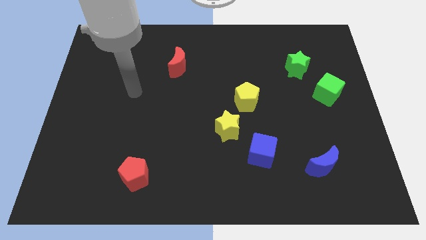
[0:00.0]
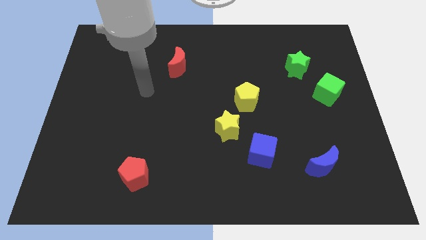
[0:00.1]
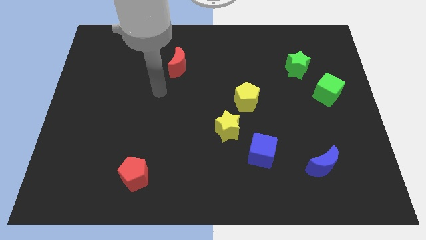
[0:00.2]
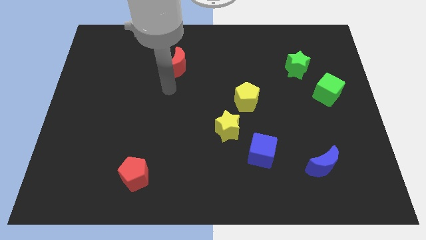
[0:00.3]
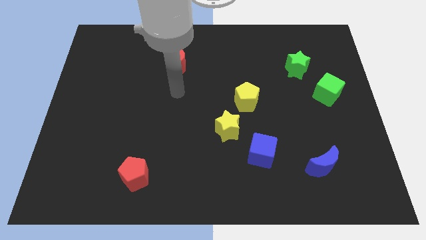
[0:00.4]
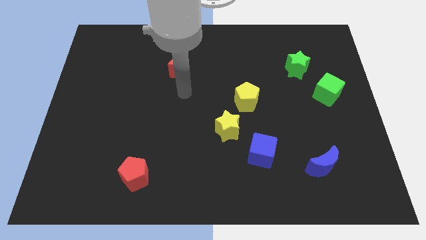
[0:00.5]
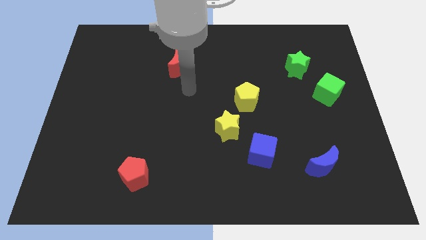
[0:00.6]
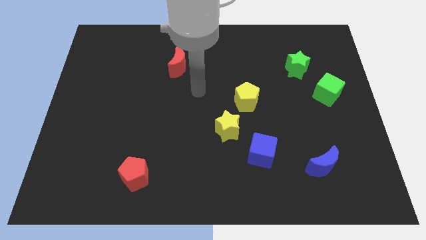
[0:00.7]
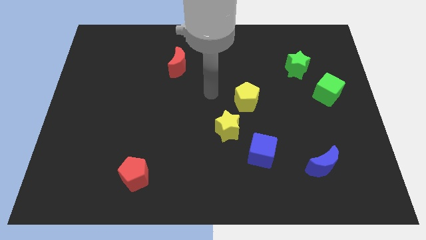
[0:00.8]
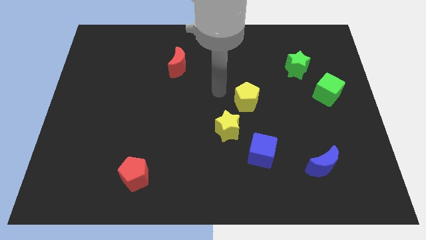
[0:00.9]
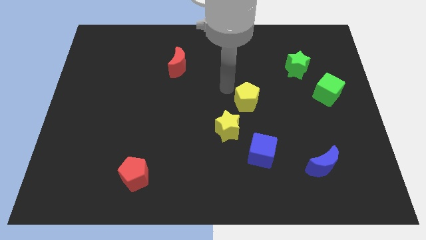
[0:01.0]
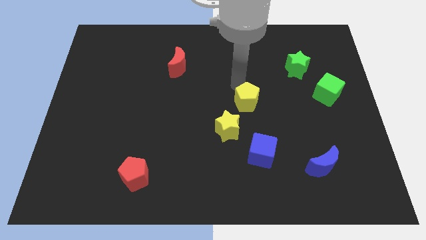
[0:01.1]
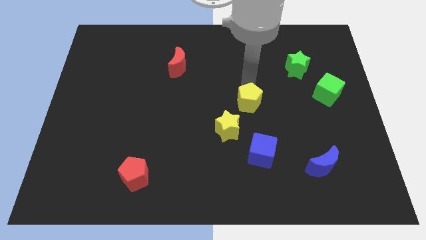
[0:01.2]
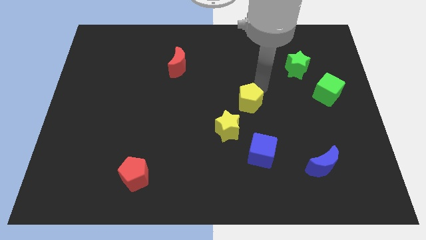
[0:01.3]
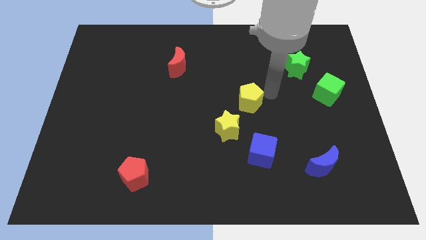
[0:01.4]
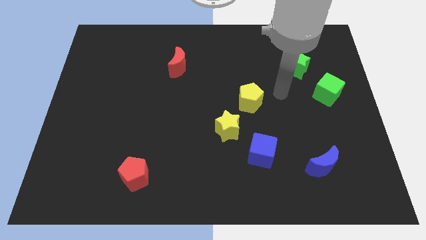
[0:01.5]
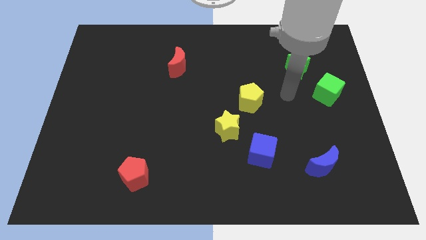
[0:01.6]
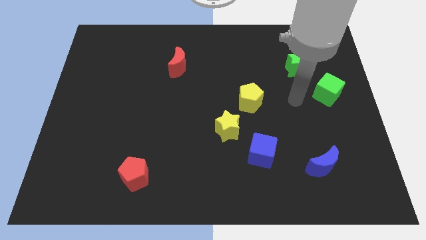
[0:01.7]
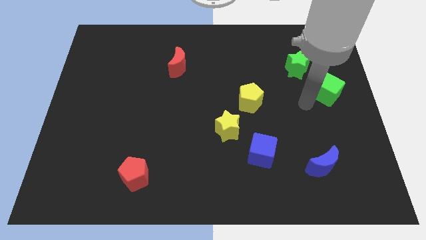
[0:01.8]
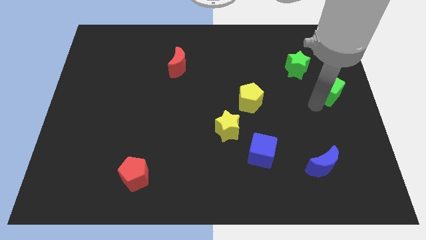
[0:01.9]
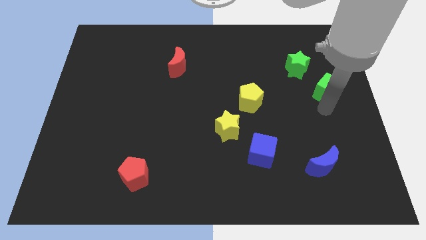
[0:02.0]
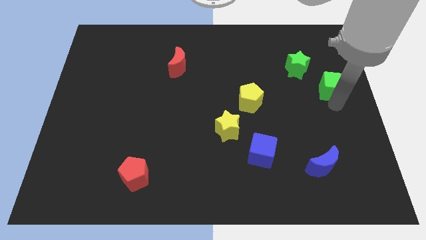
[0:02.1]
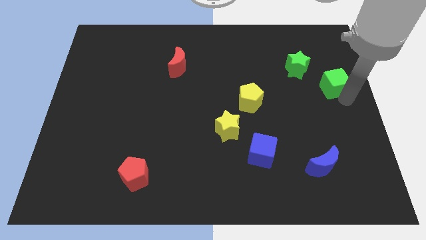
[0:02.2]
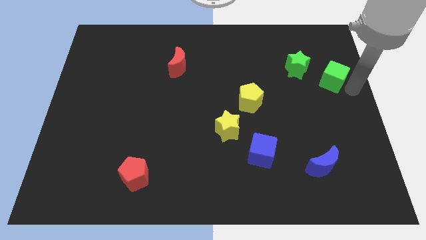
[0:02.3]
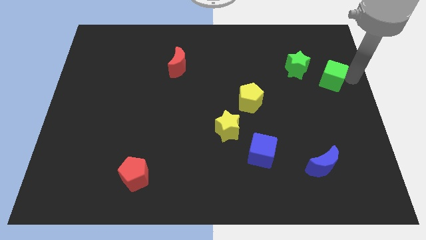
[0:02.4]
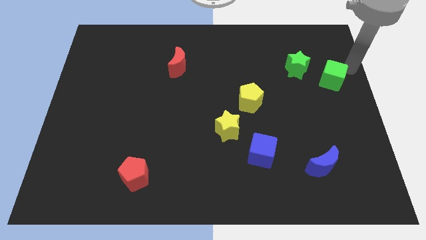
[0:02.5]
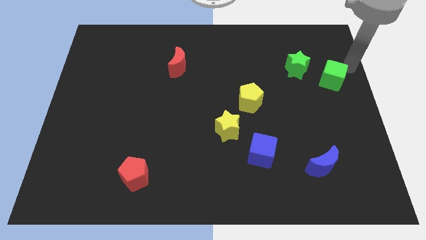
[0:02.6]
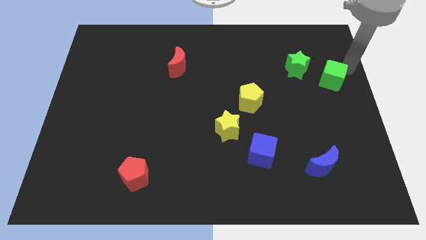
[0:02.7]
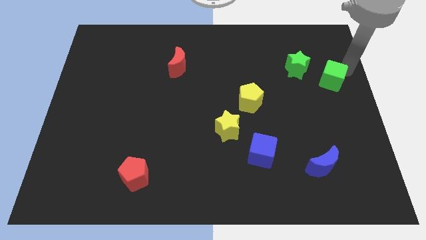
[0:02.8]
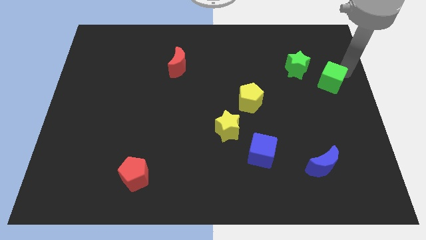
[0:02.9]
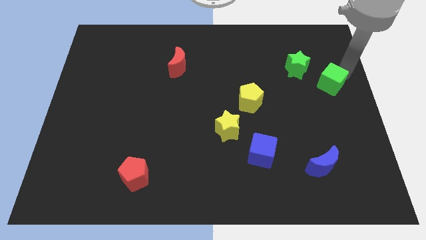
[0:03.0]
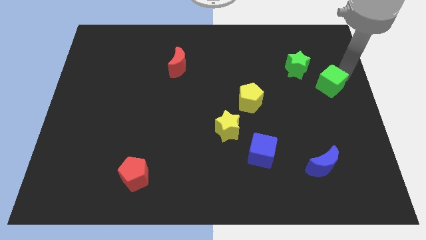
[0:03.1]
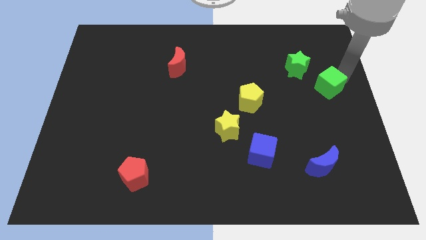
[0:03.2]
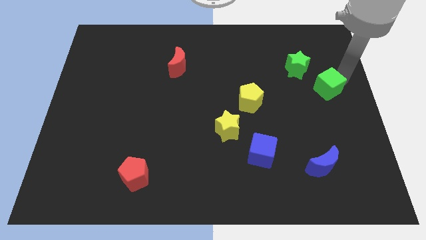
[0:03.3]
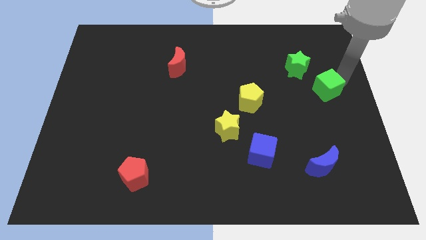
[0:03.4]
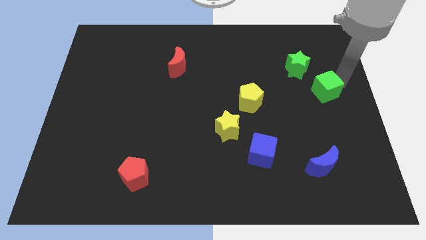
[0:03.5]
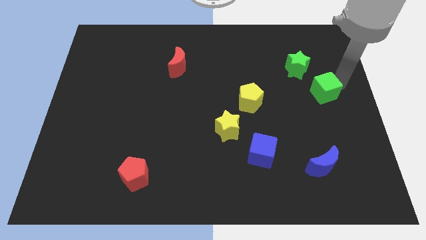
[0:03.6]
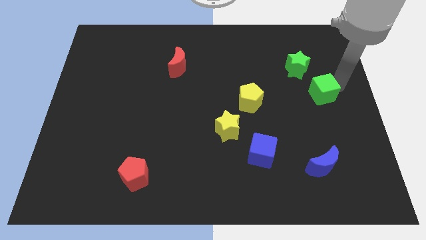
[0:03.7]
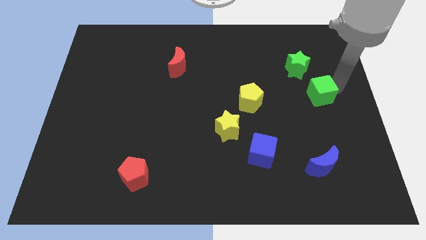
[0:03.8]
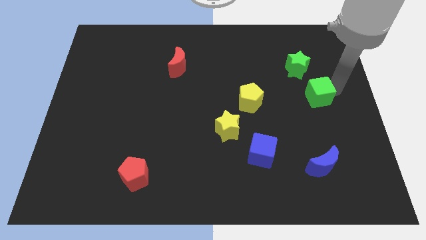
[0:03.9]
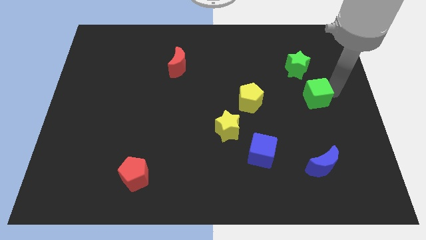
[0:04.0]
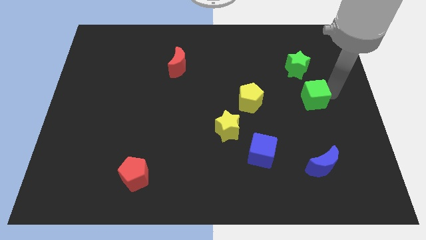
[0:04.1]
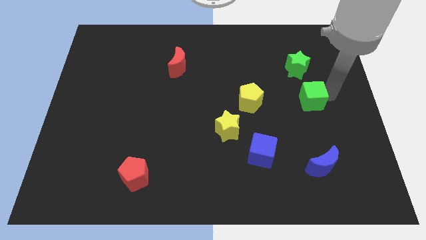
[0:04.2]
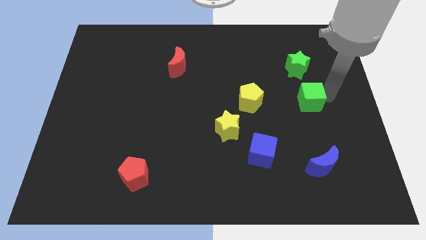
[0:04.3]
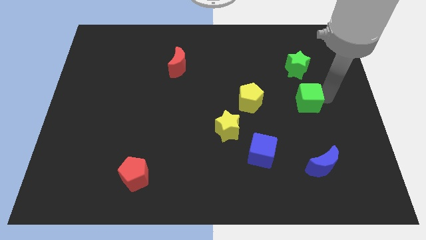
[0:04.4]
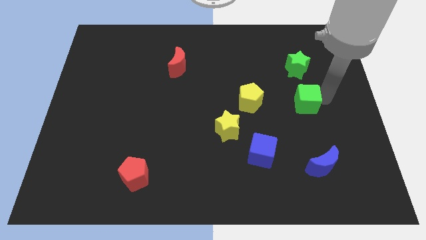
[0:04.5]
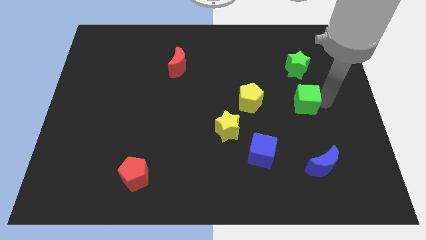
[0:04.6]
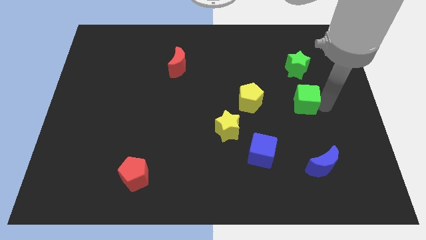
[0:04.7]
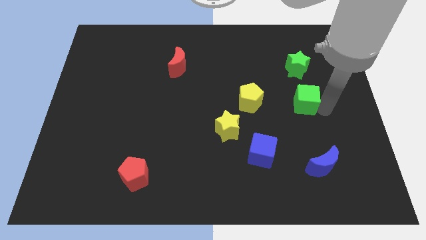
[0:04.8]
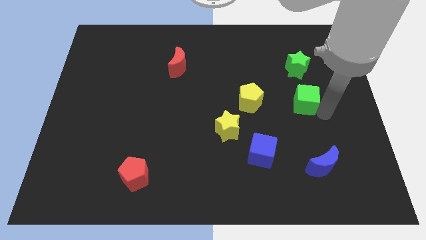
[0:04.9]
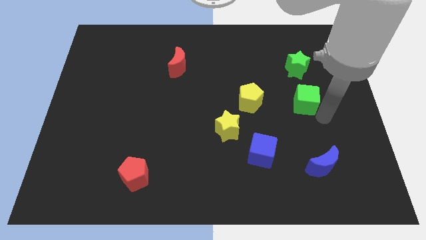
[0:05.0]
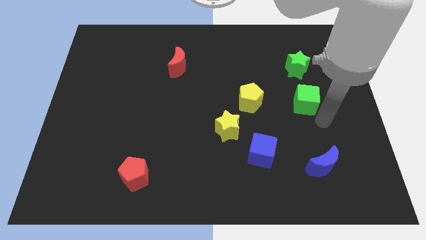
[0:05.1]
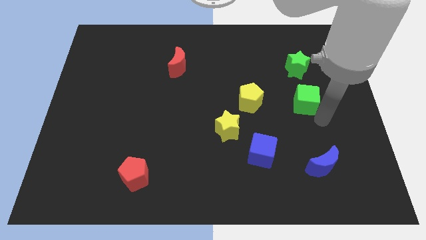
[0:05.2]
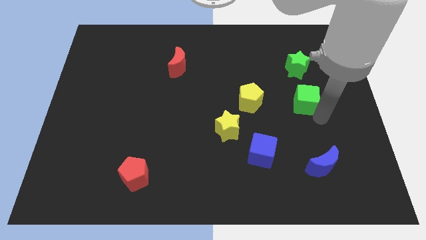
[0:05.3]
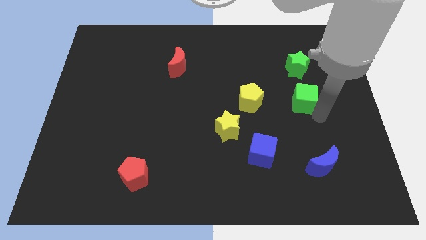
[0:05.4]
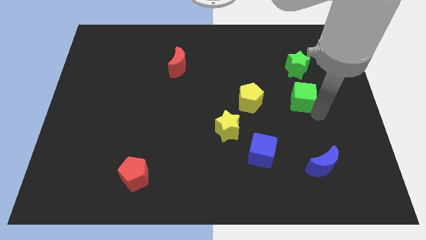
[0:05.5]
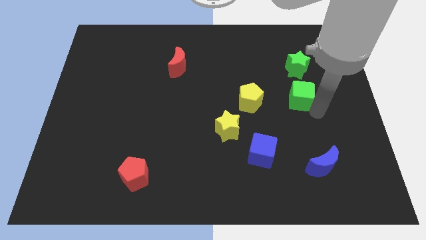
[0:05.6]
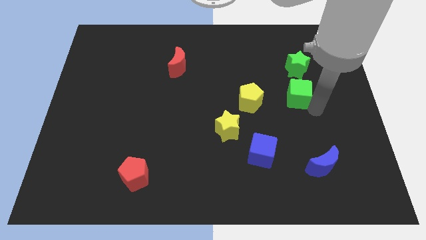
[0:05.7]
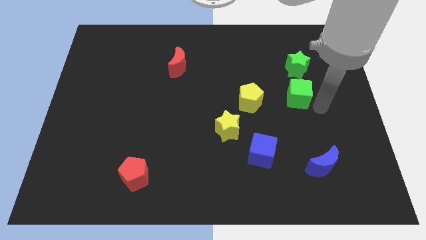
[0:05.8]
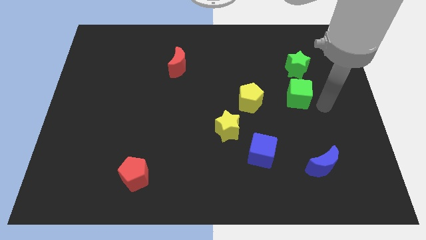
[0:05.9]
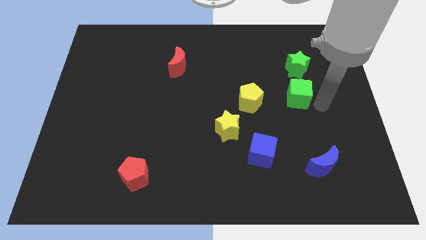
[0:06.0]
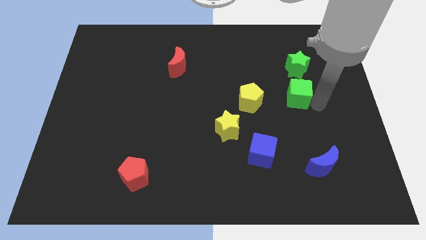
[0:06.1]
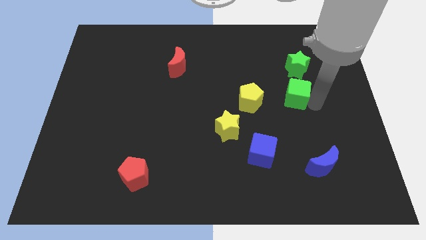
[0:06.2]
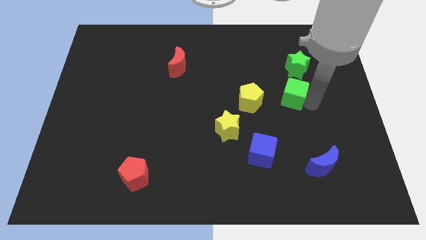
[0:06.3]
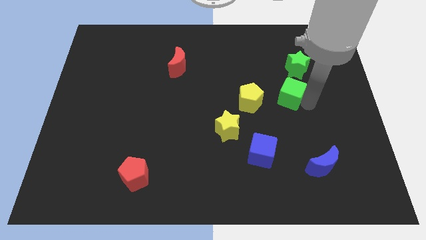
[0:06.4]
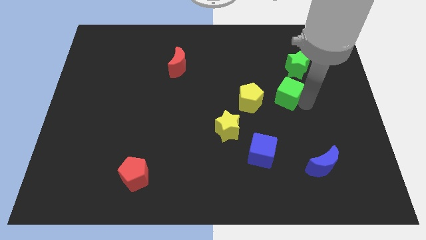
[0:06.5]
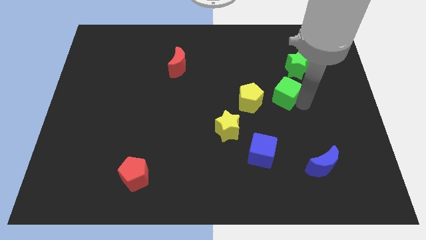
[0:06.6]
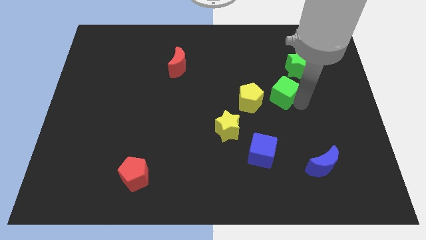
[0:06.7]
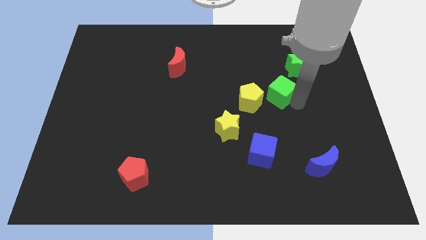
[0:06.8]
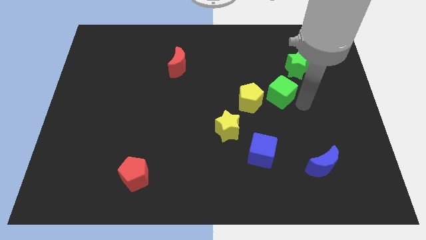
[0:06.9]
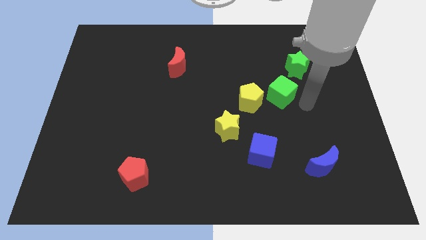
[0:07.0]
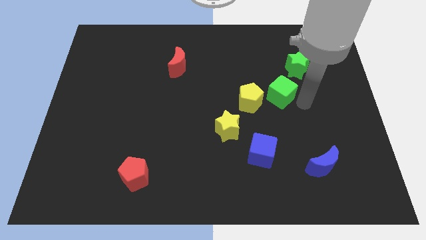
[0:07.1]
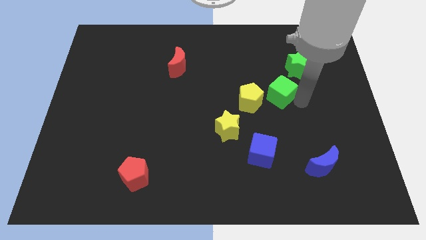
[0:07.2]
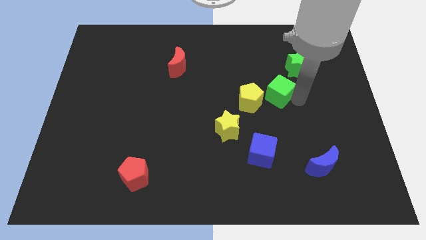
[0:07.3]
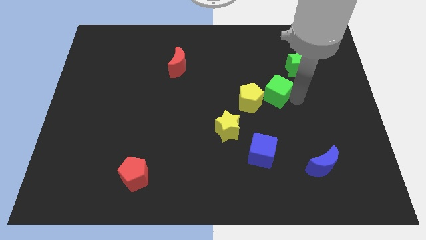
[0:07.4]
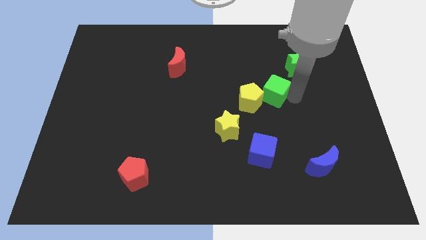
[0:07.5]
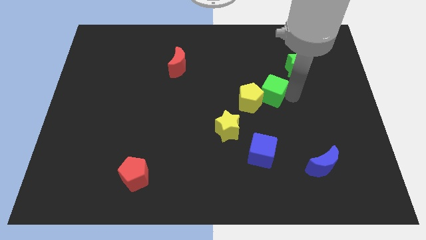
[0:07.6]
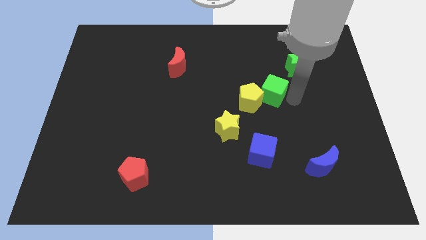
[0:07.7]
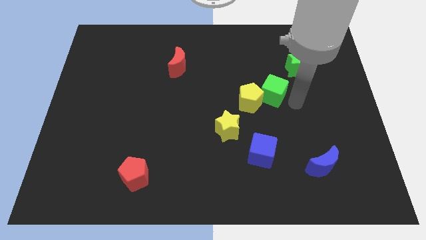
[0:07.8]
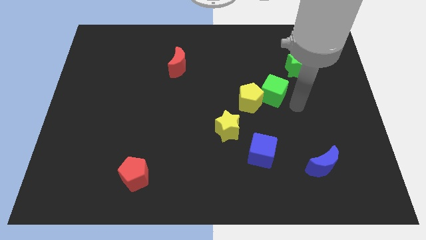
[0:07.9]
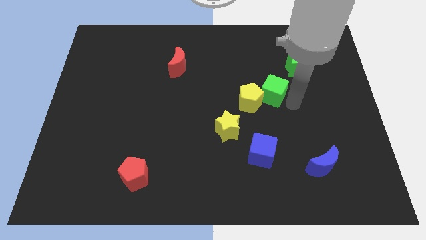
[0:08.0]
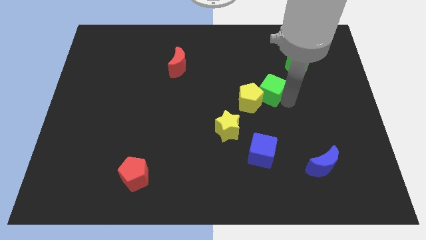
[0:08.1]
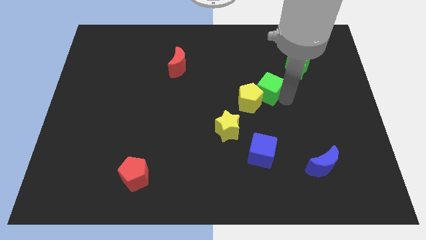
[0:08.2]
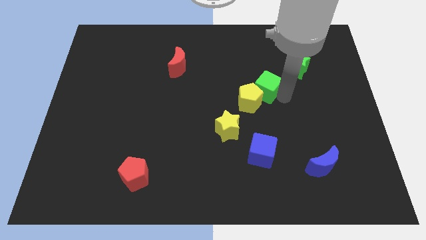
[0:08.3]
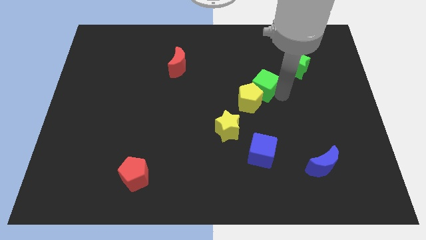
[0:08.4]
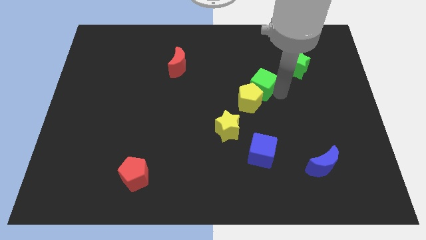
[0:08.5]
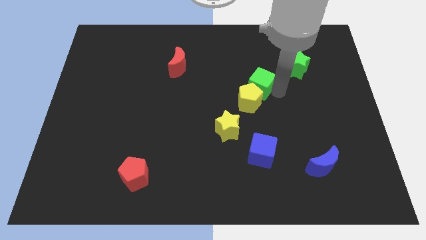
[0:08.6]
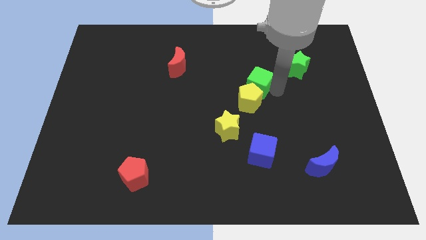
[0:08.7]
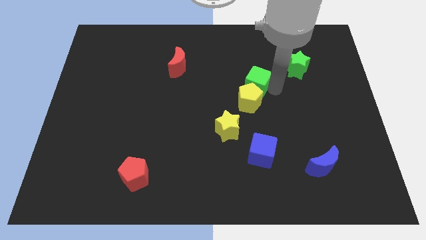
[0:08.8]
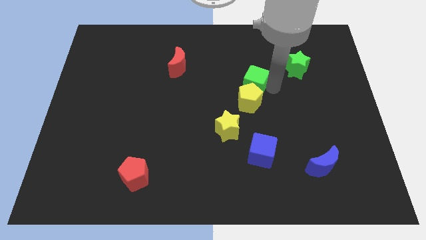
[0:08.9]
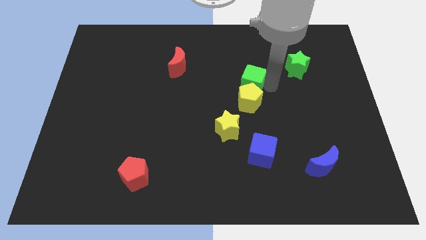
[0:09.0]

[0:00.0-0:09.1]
slide the green cube to the top left side of the yellow pentagon
